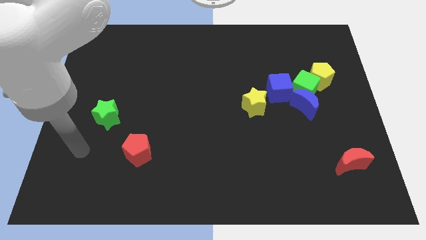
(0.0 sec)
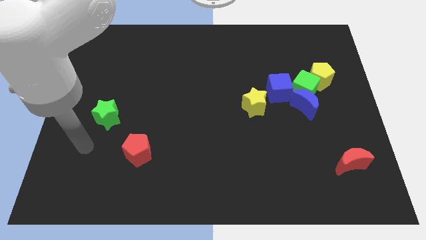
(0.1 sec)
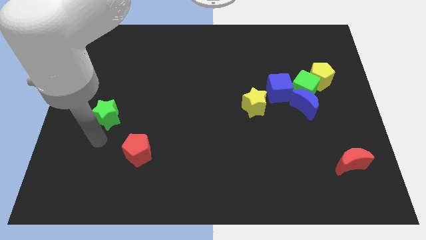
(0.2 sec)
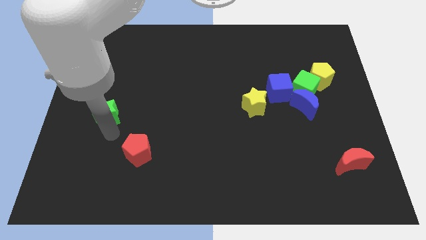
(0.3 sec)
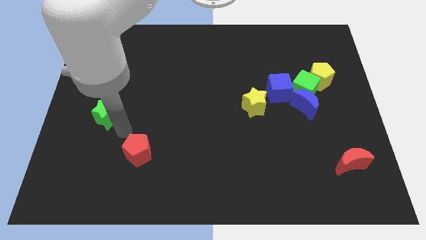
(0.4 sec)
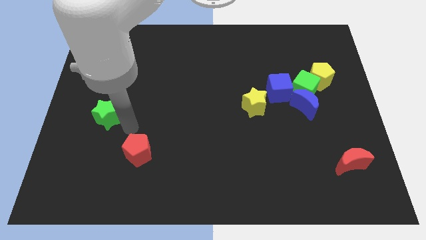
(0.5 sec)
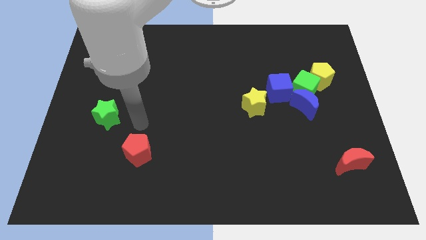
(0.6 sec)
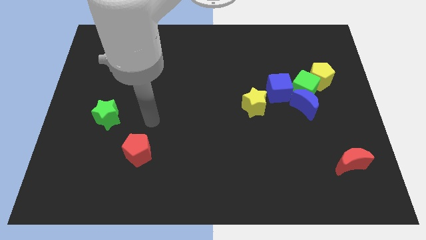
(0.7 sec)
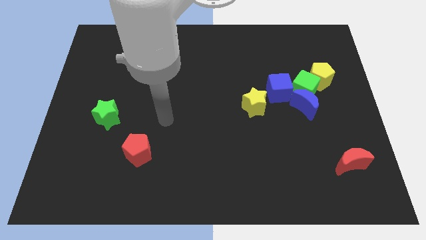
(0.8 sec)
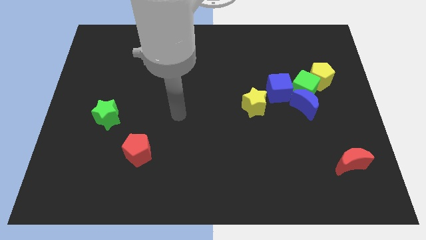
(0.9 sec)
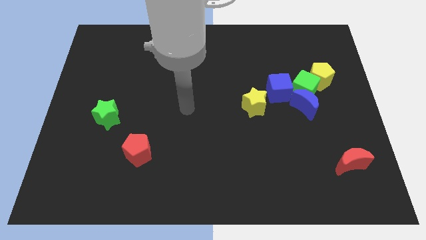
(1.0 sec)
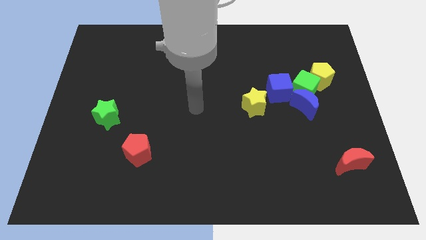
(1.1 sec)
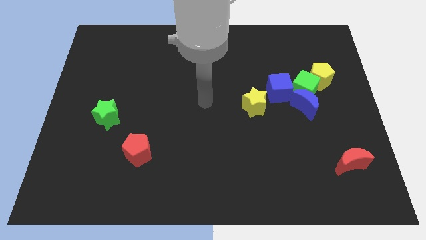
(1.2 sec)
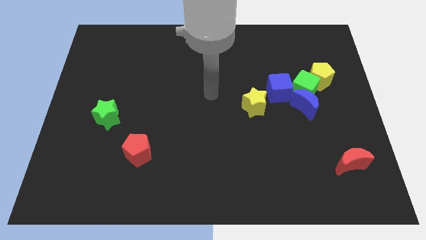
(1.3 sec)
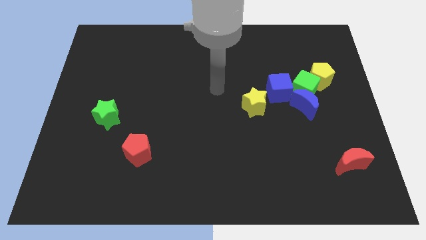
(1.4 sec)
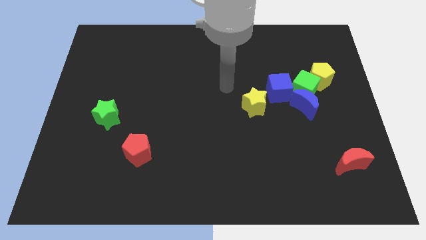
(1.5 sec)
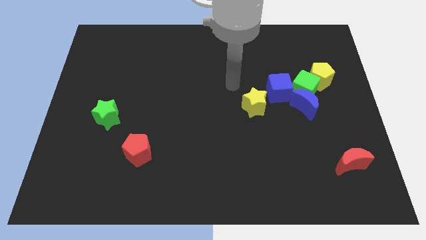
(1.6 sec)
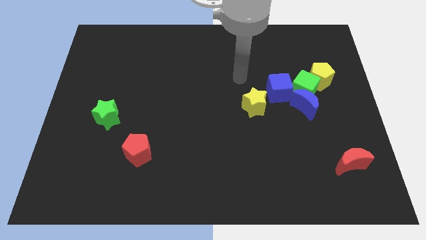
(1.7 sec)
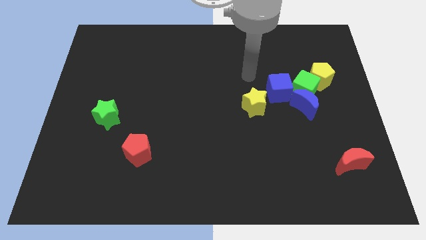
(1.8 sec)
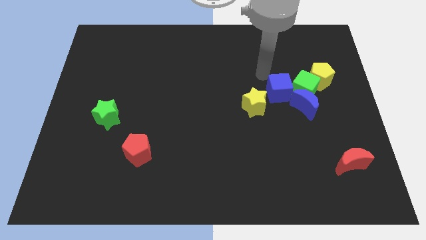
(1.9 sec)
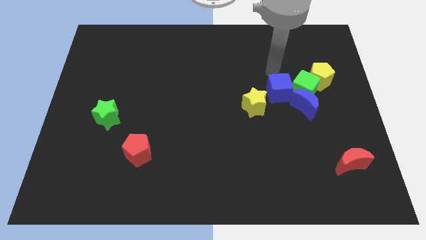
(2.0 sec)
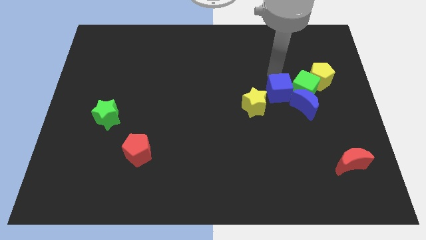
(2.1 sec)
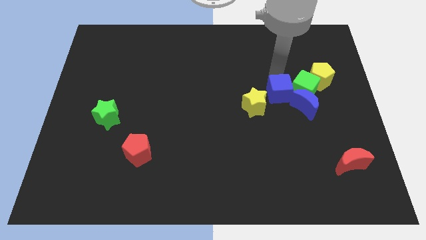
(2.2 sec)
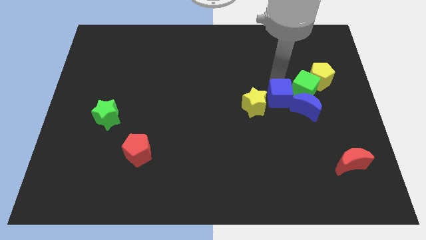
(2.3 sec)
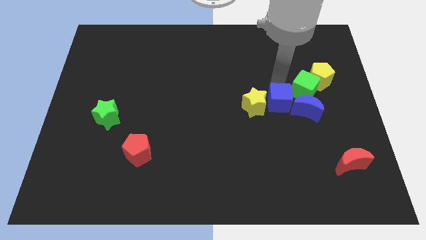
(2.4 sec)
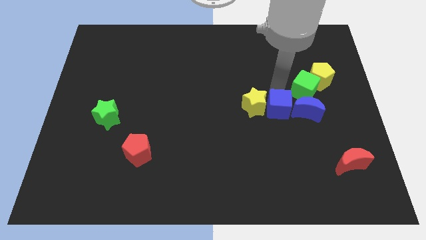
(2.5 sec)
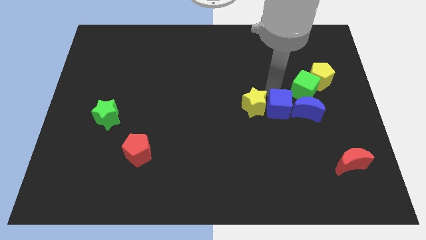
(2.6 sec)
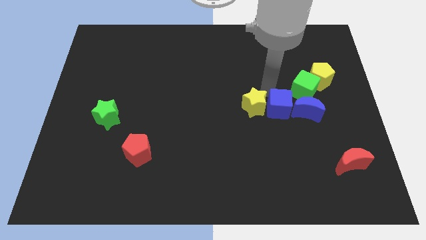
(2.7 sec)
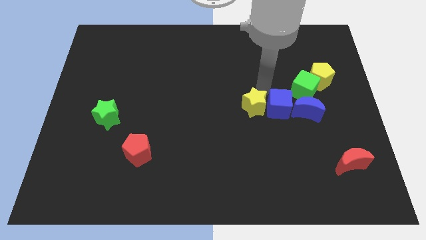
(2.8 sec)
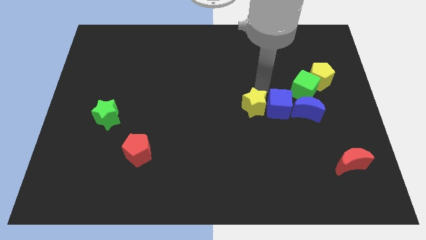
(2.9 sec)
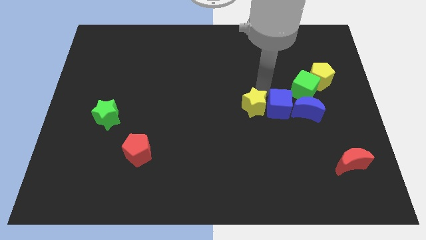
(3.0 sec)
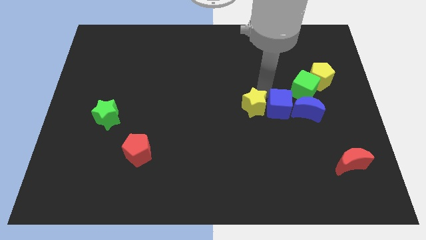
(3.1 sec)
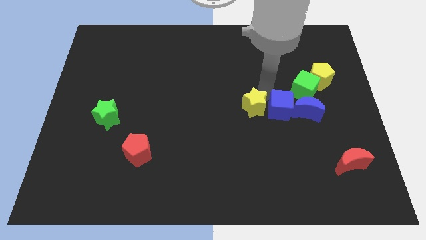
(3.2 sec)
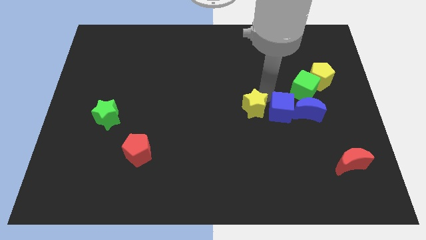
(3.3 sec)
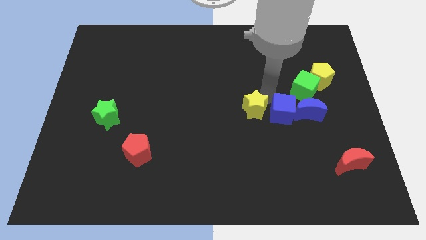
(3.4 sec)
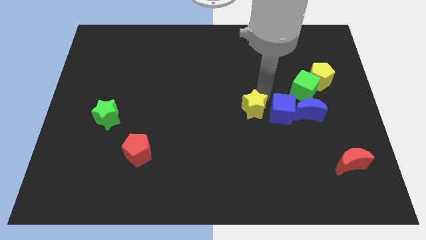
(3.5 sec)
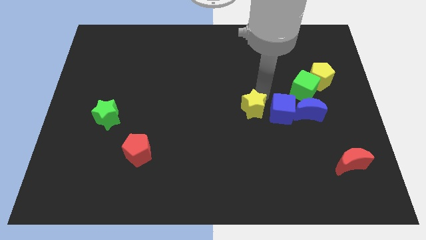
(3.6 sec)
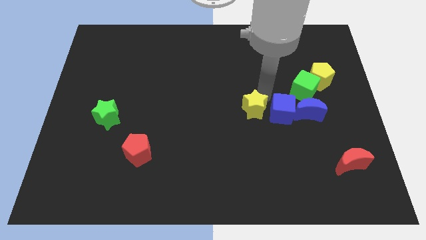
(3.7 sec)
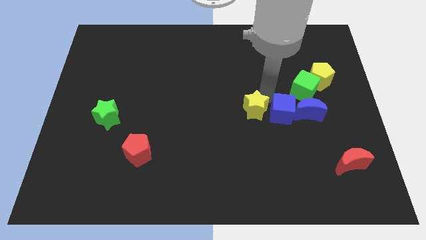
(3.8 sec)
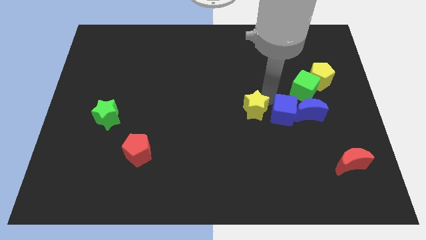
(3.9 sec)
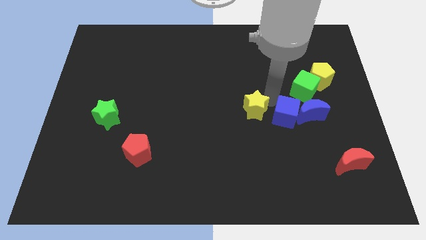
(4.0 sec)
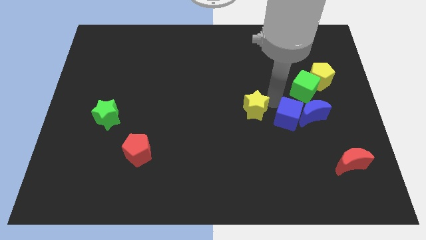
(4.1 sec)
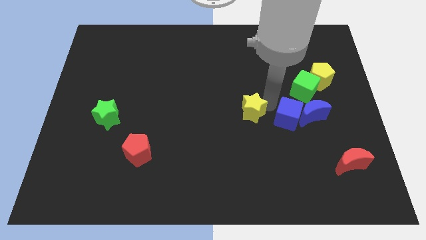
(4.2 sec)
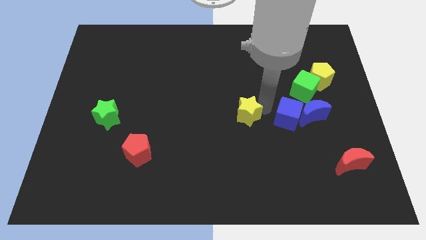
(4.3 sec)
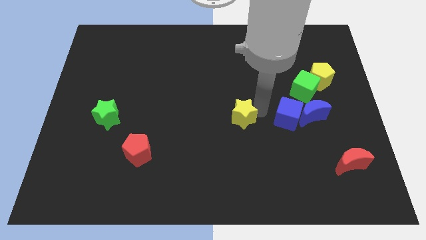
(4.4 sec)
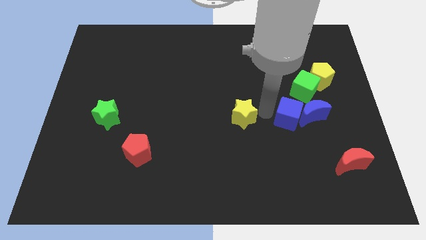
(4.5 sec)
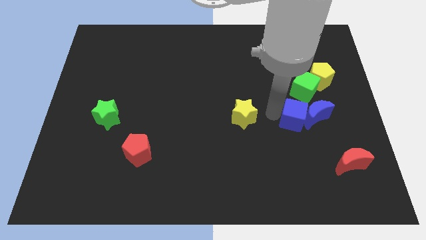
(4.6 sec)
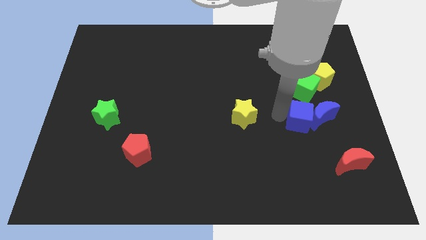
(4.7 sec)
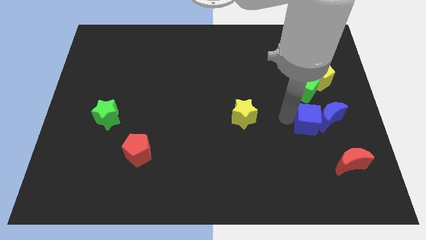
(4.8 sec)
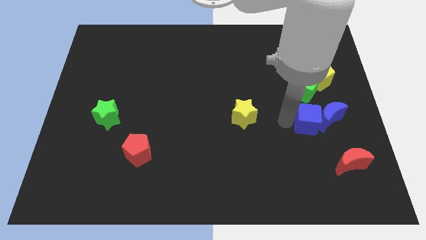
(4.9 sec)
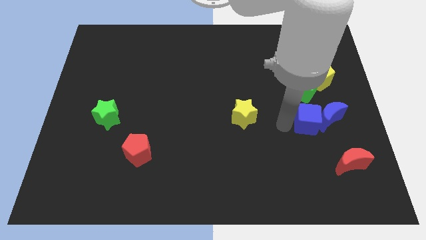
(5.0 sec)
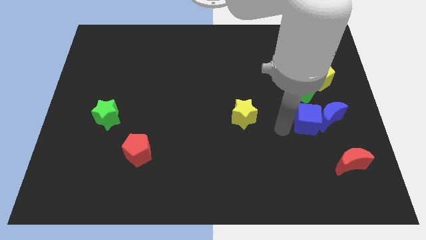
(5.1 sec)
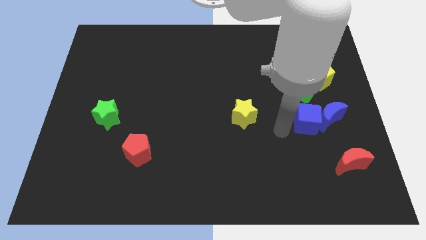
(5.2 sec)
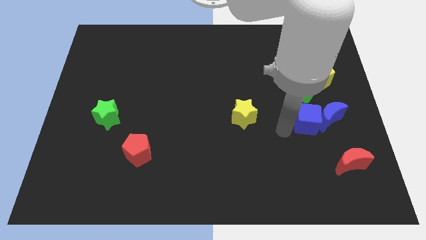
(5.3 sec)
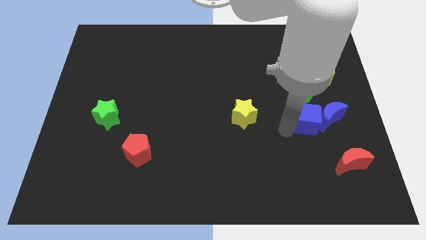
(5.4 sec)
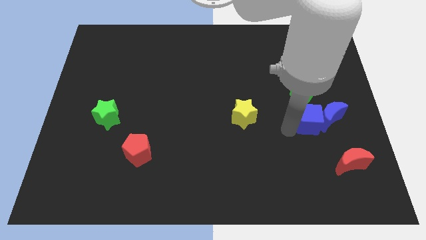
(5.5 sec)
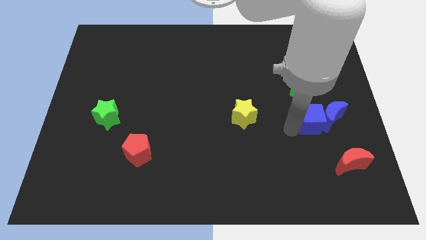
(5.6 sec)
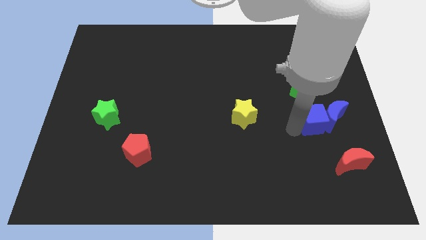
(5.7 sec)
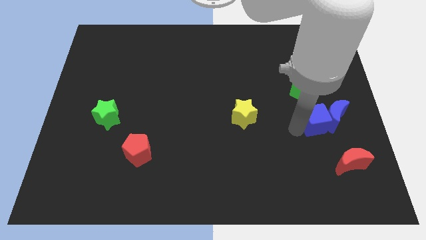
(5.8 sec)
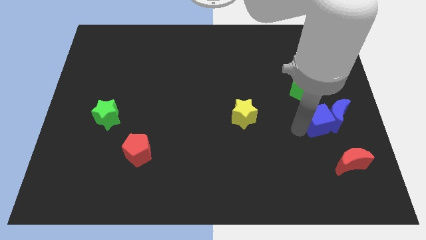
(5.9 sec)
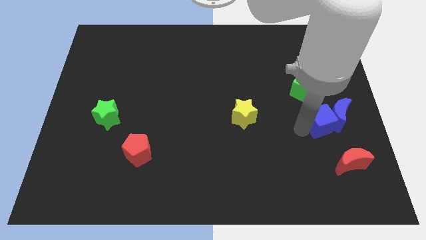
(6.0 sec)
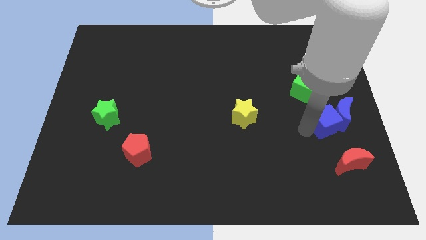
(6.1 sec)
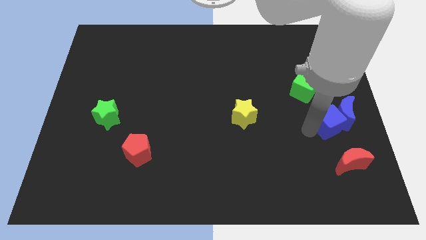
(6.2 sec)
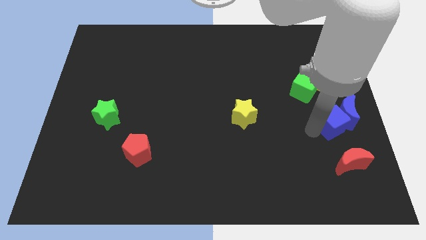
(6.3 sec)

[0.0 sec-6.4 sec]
put the blue cube to the right side of the board
